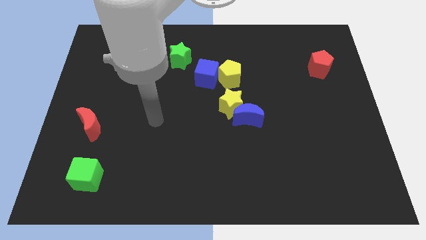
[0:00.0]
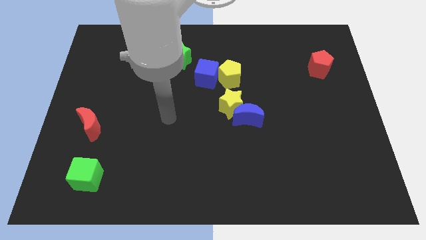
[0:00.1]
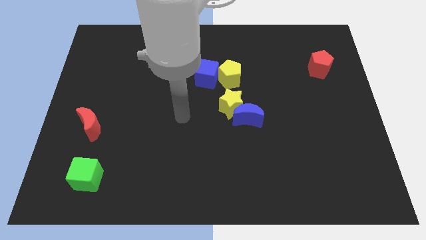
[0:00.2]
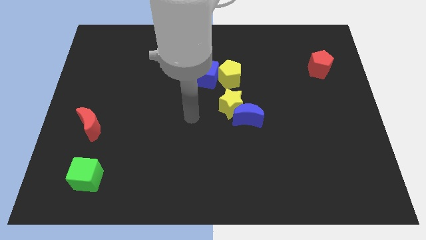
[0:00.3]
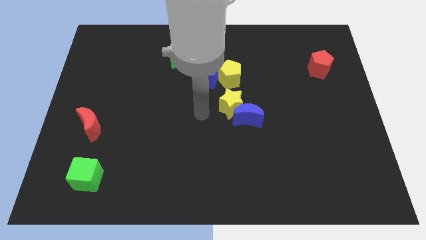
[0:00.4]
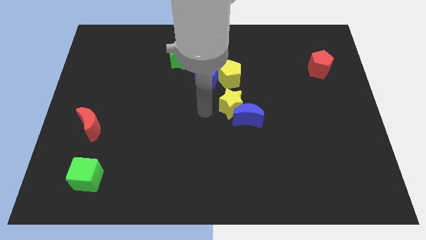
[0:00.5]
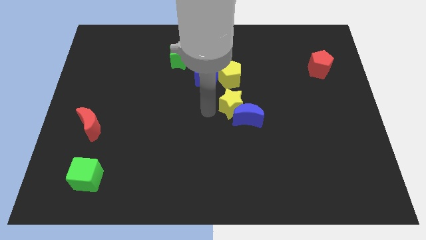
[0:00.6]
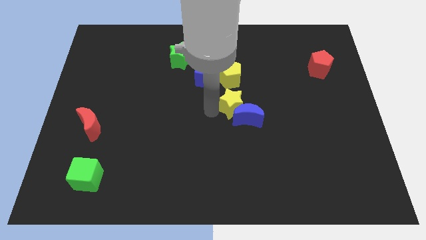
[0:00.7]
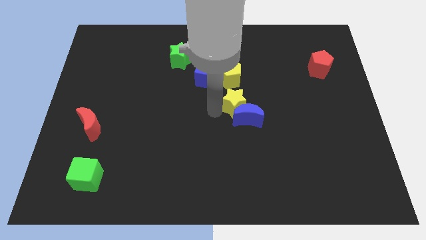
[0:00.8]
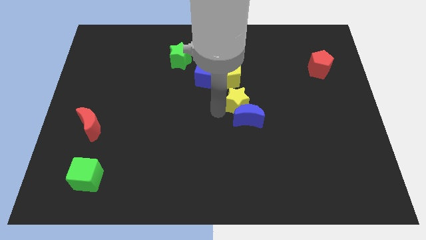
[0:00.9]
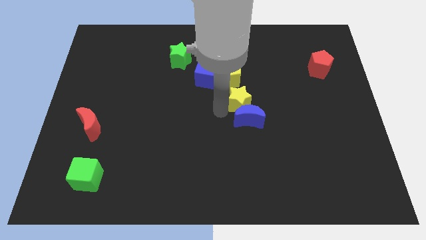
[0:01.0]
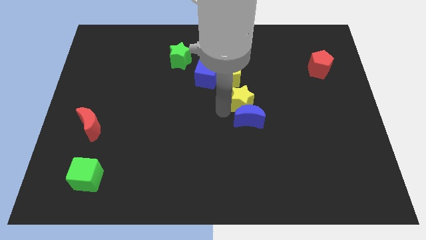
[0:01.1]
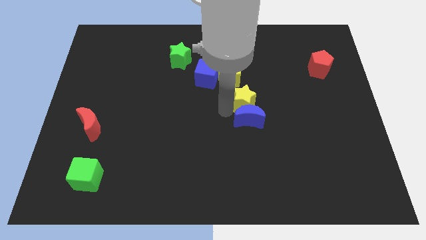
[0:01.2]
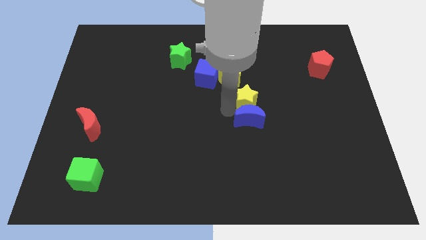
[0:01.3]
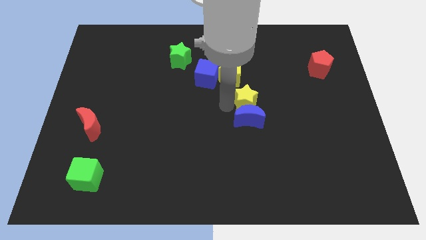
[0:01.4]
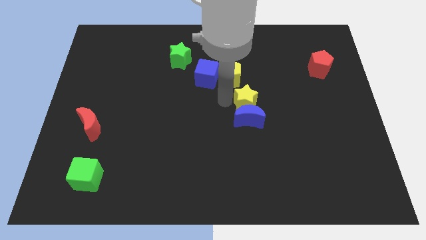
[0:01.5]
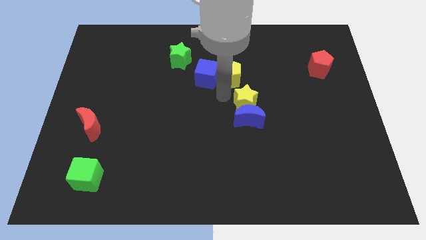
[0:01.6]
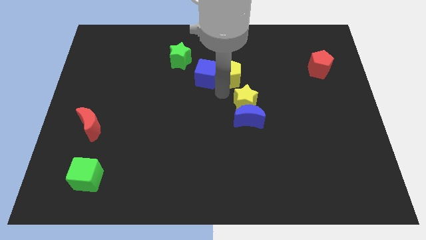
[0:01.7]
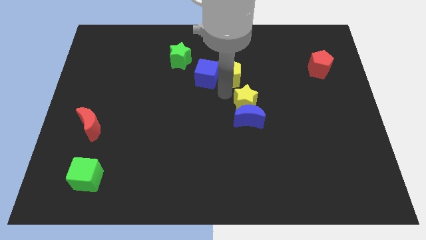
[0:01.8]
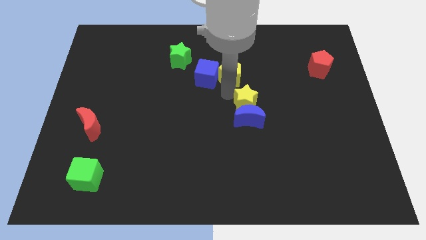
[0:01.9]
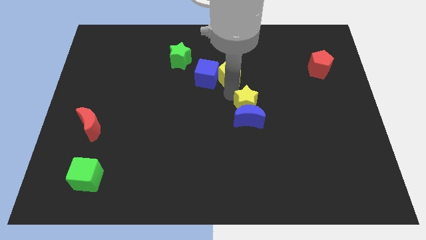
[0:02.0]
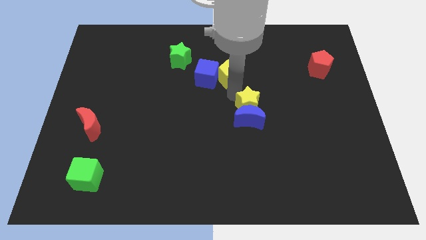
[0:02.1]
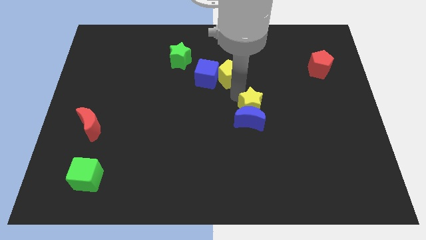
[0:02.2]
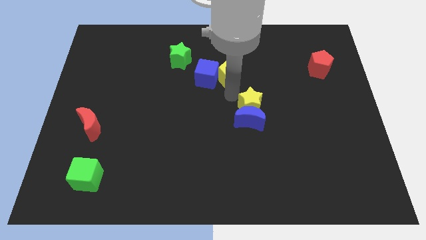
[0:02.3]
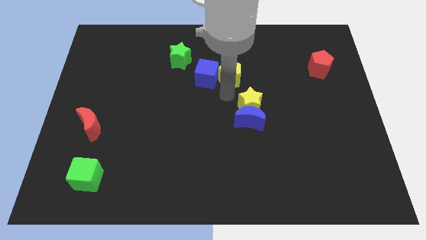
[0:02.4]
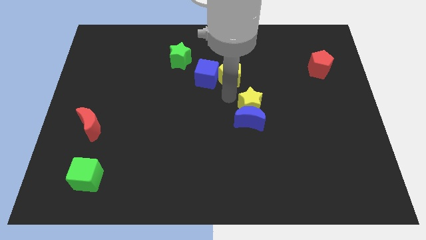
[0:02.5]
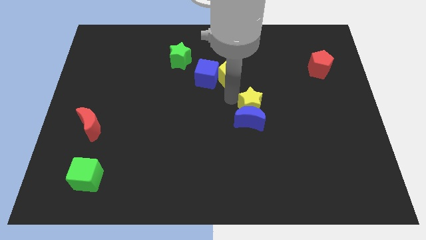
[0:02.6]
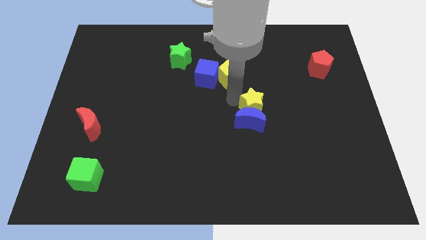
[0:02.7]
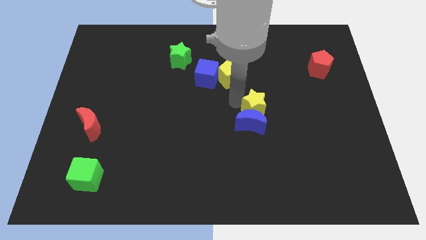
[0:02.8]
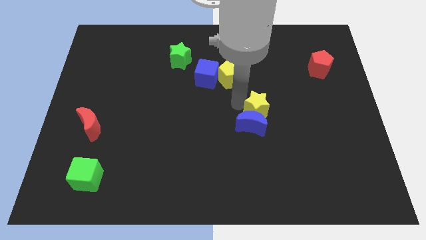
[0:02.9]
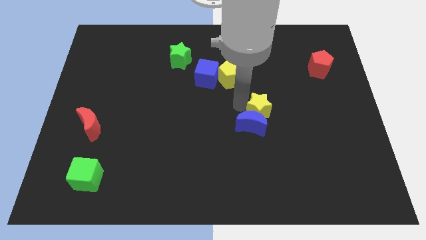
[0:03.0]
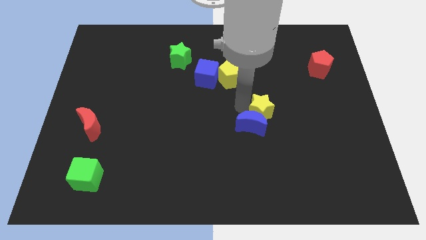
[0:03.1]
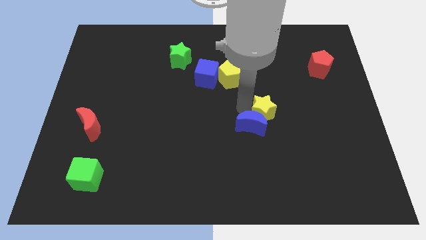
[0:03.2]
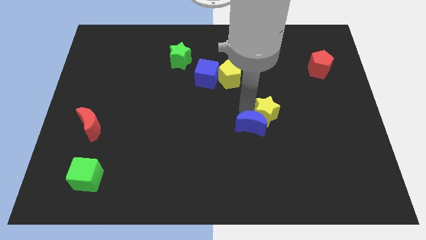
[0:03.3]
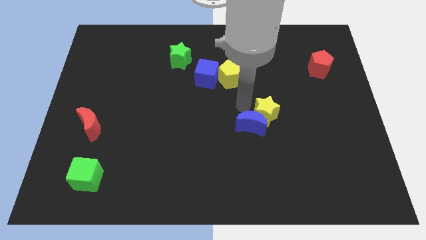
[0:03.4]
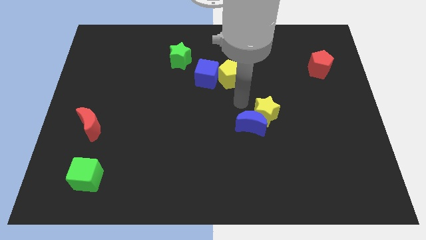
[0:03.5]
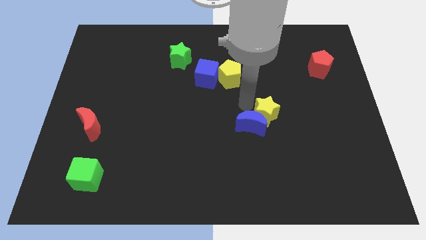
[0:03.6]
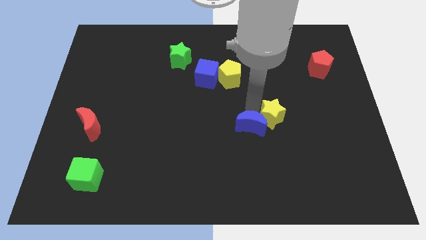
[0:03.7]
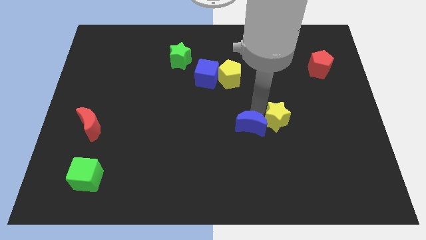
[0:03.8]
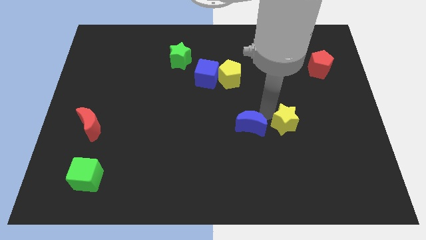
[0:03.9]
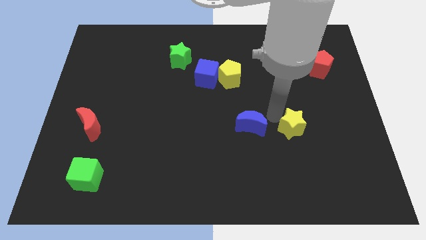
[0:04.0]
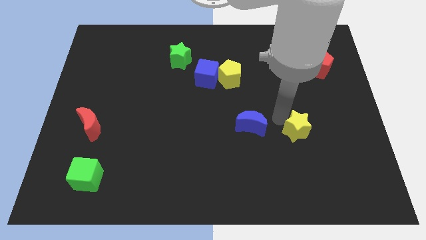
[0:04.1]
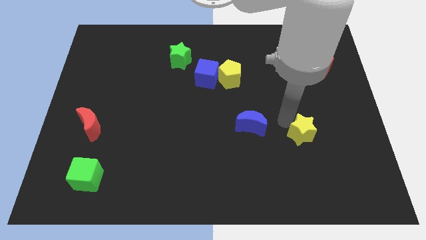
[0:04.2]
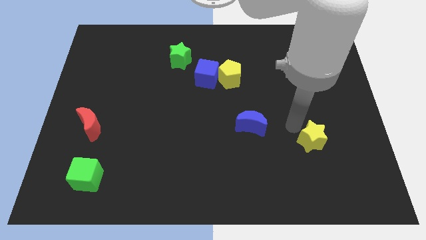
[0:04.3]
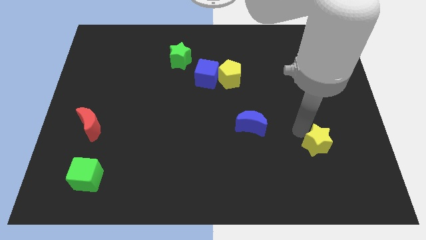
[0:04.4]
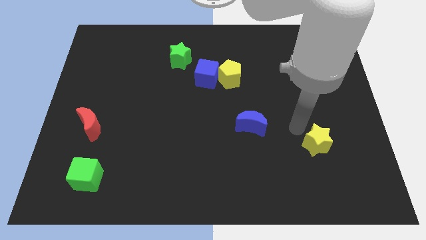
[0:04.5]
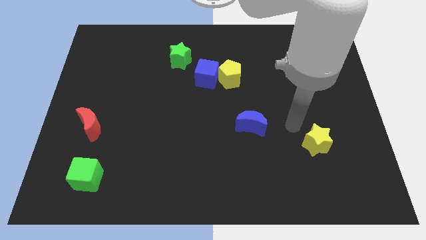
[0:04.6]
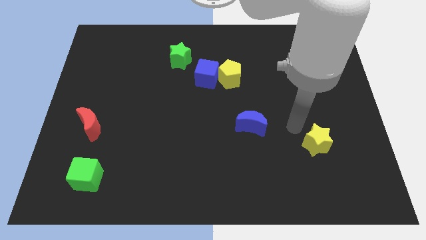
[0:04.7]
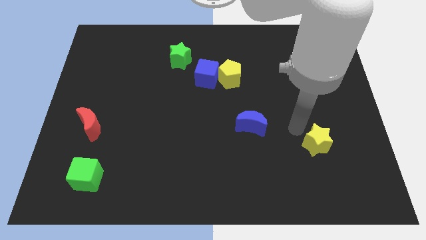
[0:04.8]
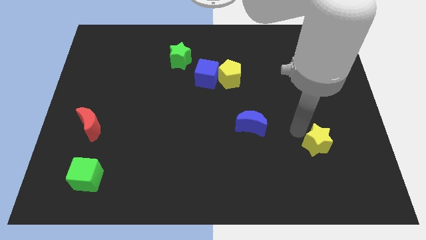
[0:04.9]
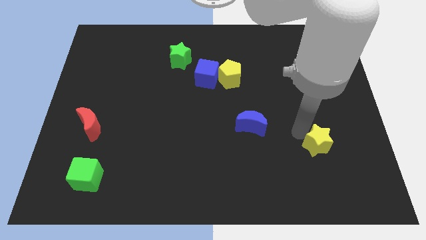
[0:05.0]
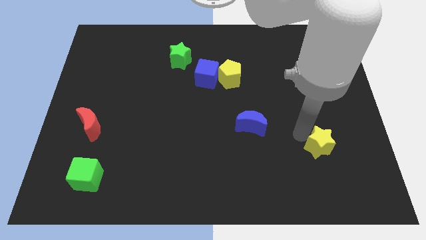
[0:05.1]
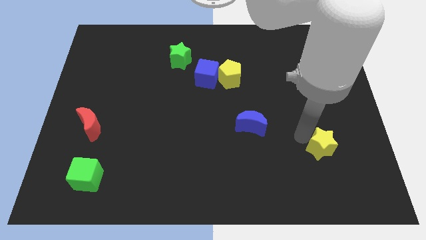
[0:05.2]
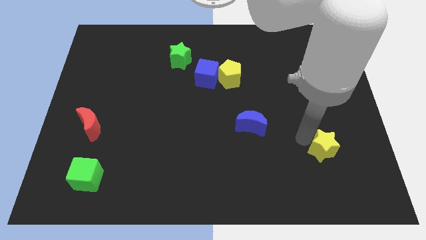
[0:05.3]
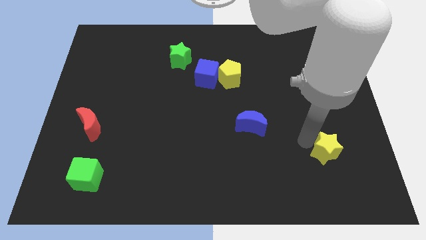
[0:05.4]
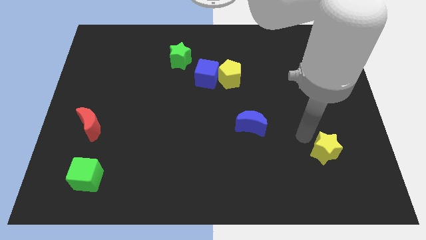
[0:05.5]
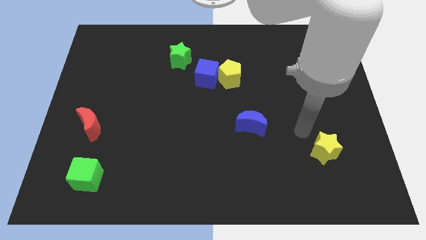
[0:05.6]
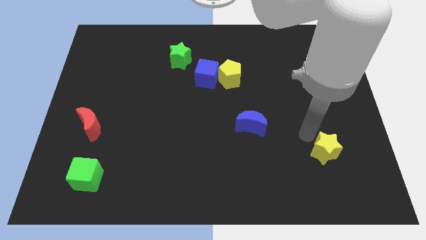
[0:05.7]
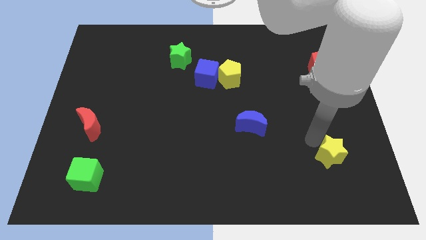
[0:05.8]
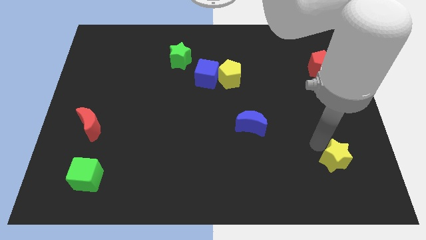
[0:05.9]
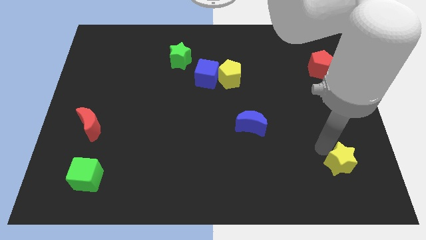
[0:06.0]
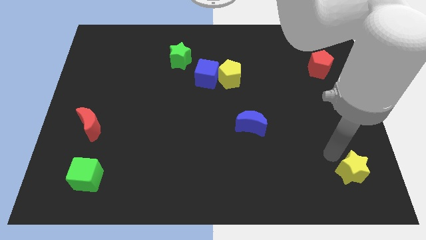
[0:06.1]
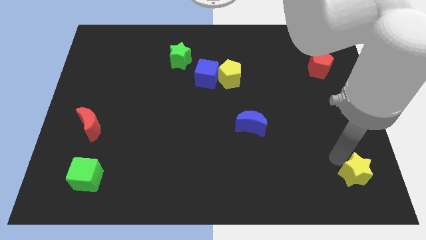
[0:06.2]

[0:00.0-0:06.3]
put the yellow star to the bottom right corner
